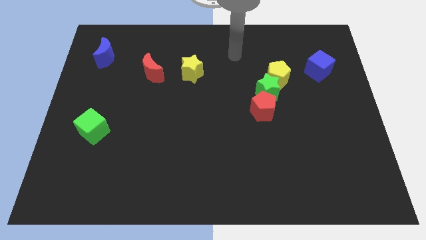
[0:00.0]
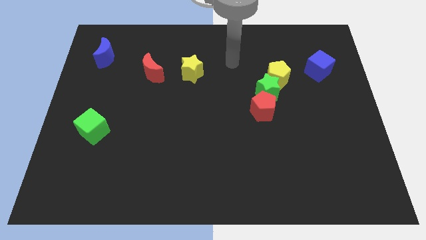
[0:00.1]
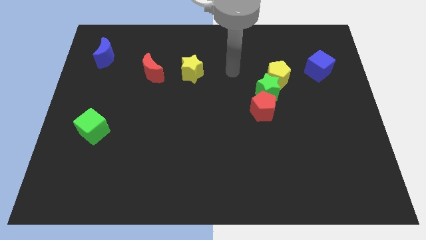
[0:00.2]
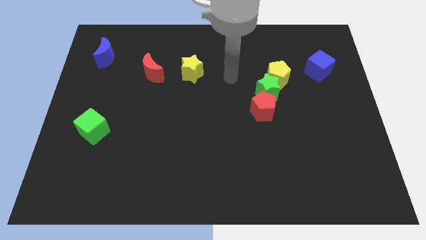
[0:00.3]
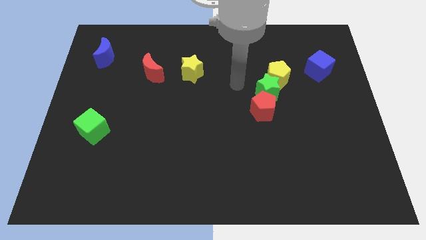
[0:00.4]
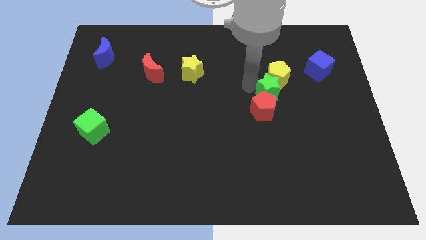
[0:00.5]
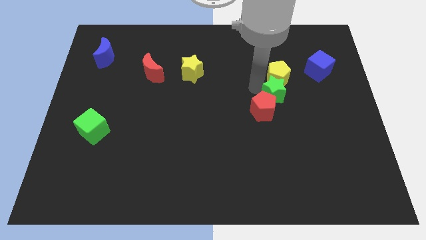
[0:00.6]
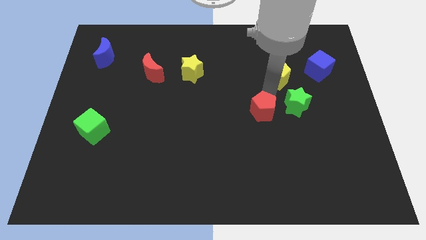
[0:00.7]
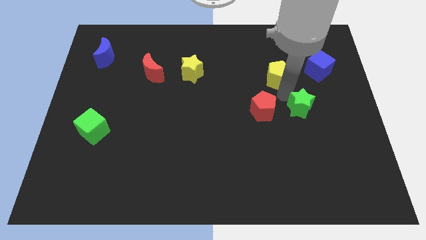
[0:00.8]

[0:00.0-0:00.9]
pull the yellow pentagon apart from the green star

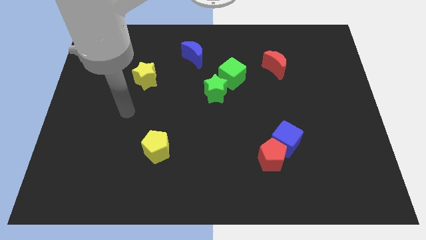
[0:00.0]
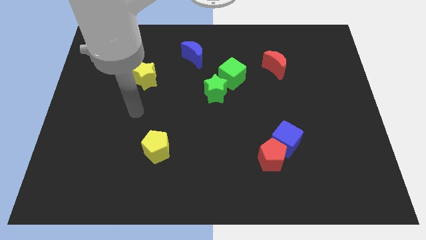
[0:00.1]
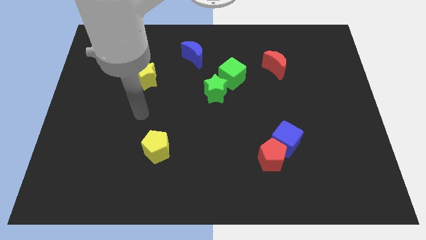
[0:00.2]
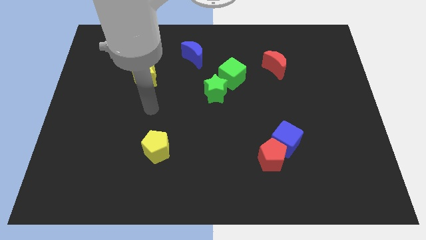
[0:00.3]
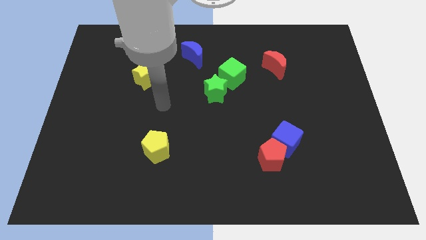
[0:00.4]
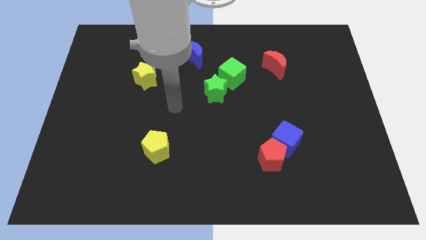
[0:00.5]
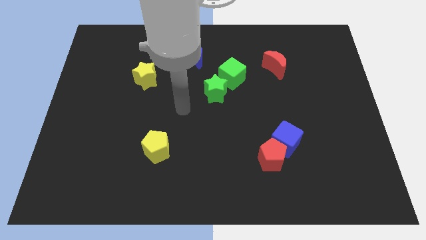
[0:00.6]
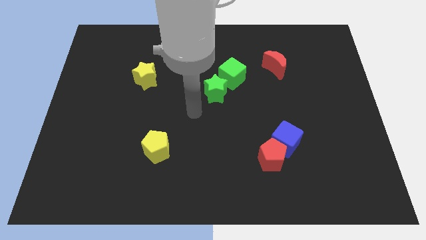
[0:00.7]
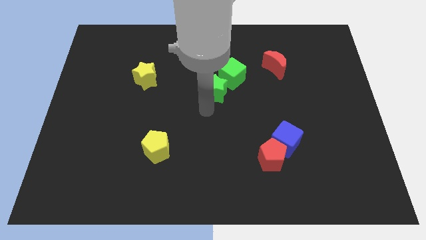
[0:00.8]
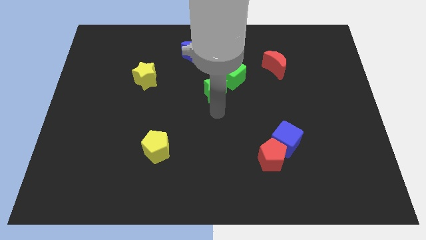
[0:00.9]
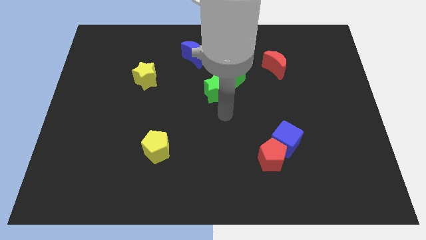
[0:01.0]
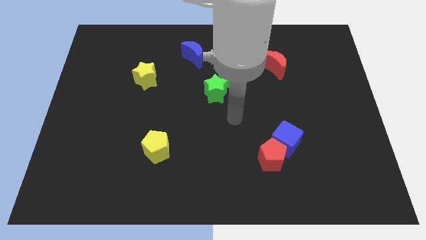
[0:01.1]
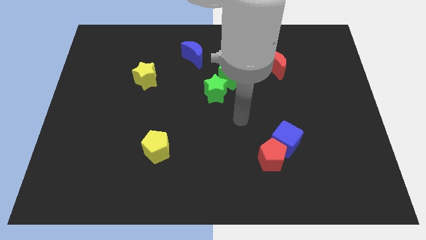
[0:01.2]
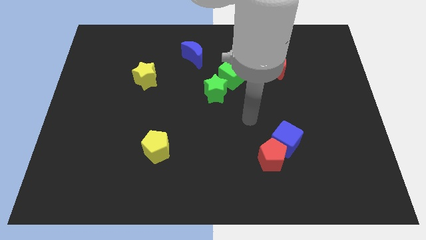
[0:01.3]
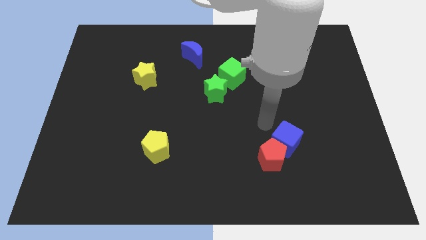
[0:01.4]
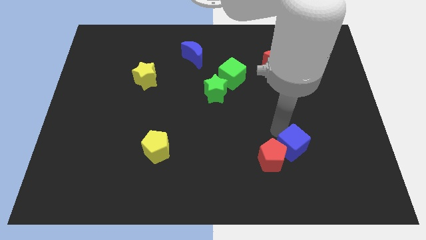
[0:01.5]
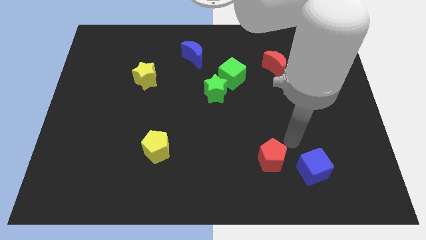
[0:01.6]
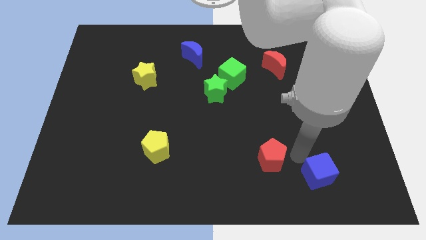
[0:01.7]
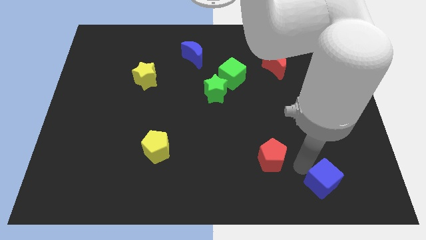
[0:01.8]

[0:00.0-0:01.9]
pull the red pentagon apart from the blue cube

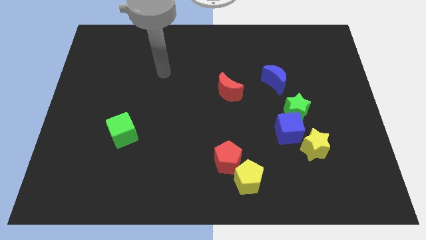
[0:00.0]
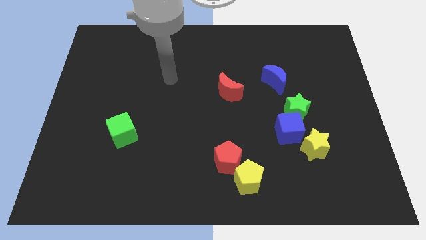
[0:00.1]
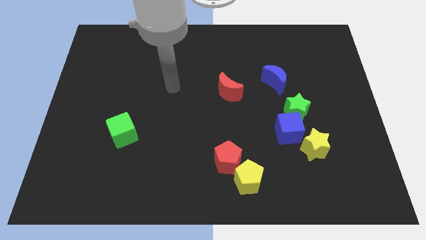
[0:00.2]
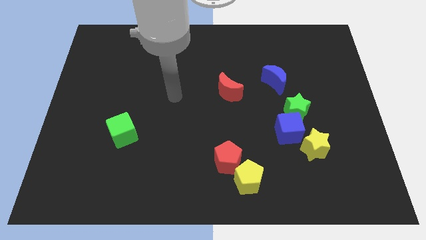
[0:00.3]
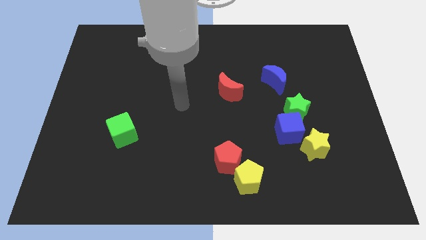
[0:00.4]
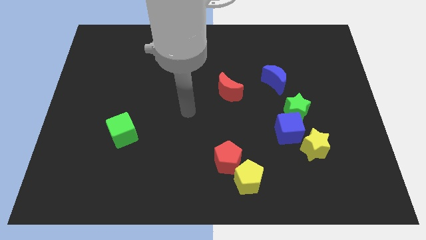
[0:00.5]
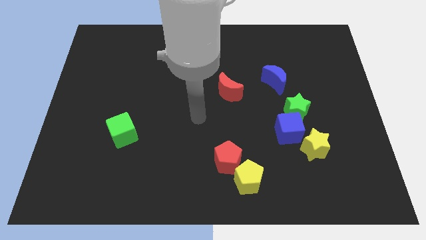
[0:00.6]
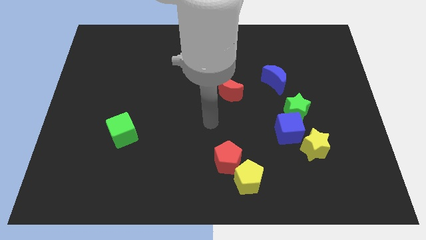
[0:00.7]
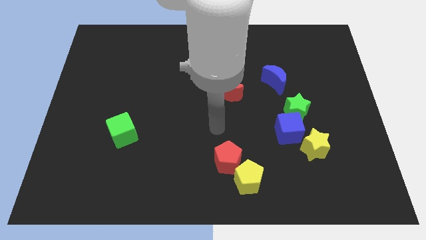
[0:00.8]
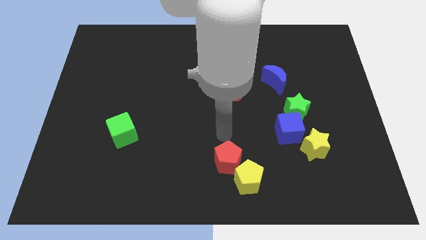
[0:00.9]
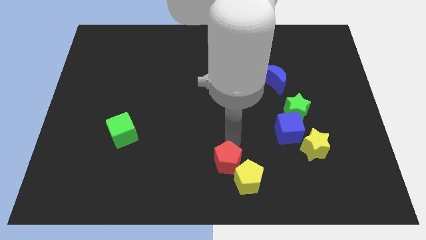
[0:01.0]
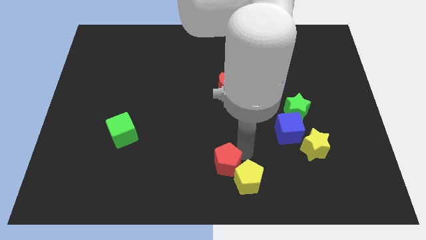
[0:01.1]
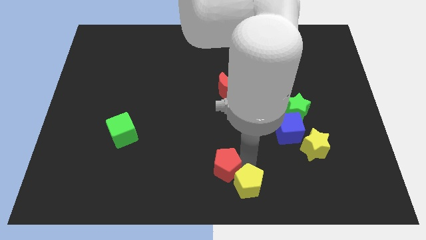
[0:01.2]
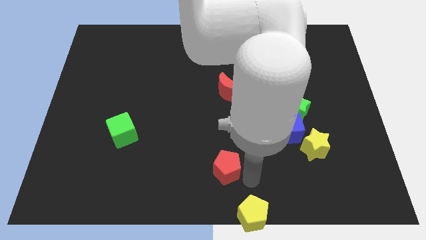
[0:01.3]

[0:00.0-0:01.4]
move the red pentagon away from the yellow pentagon

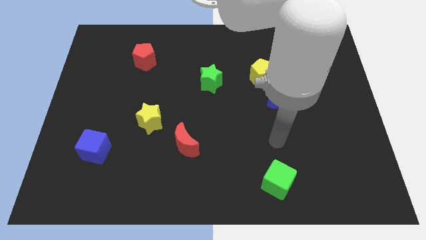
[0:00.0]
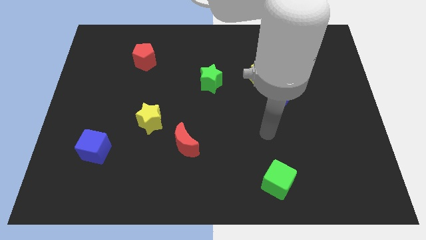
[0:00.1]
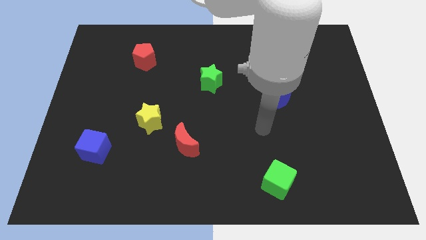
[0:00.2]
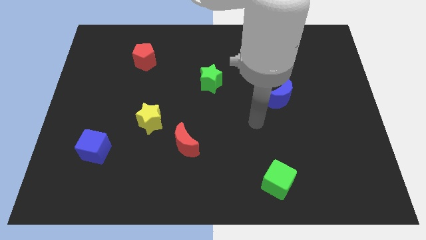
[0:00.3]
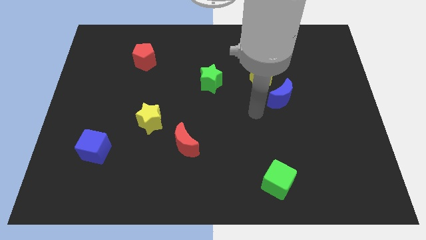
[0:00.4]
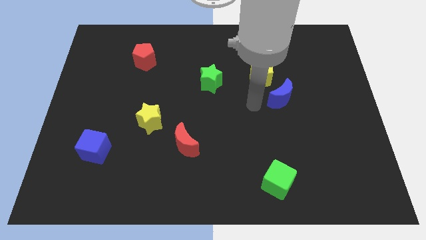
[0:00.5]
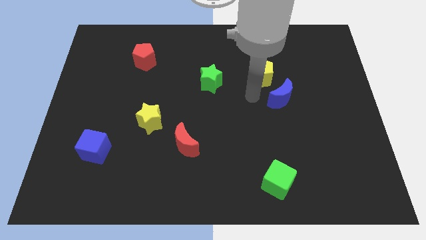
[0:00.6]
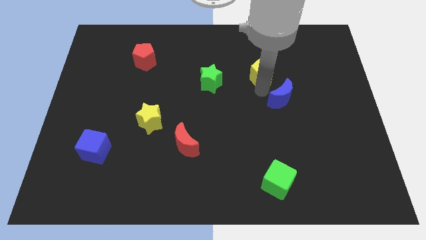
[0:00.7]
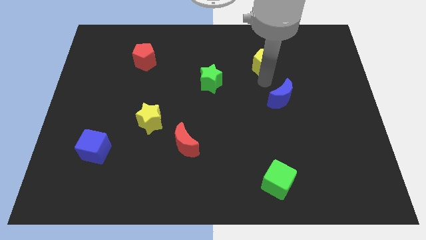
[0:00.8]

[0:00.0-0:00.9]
pull the blue moon apart from the yellow pentagon

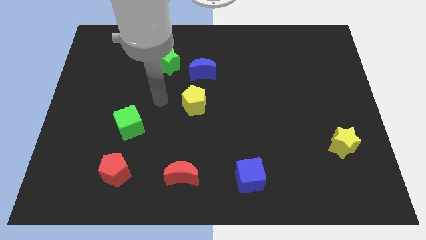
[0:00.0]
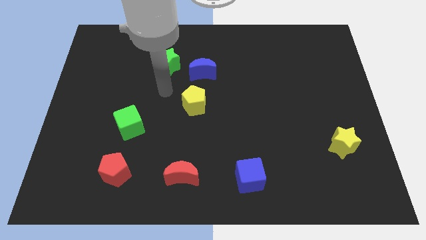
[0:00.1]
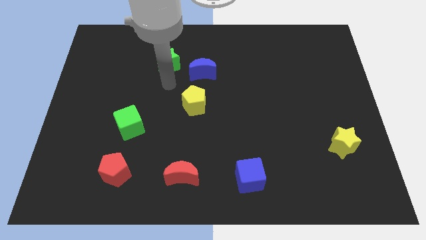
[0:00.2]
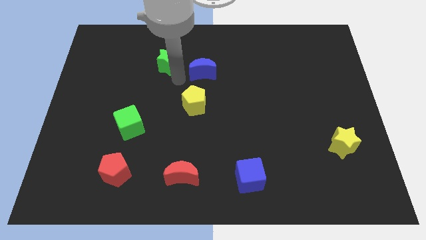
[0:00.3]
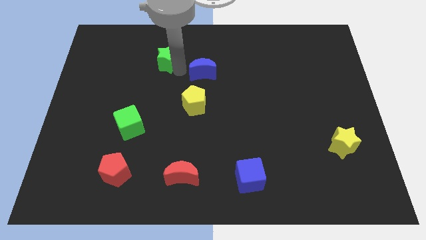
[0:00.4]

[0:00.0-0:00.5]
separate the blue moon from the green star

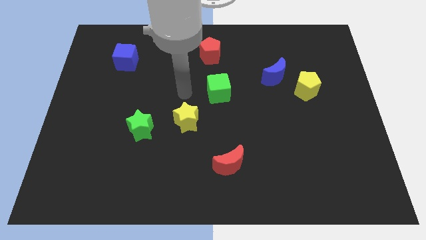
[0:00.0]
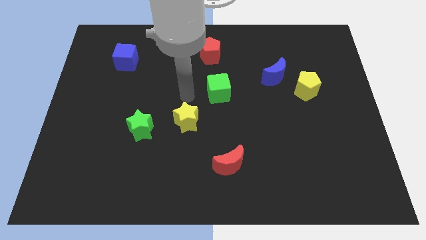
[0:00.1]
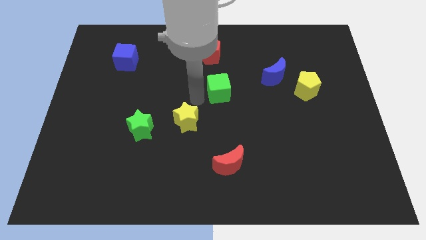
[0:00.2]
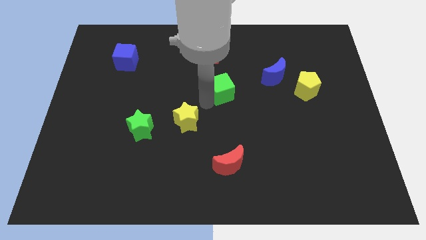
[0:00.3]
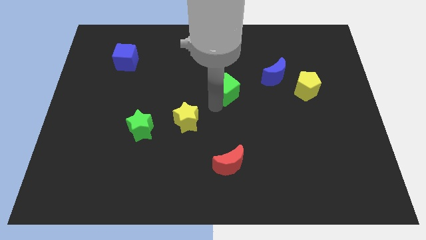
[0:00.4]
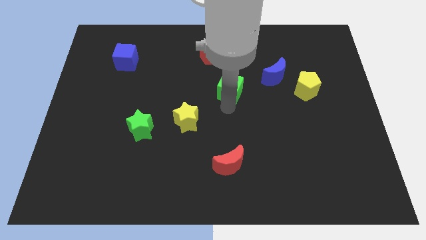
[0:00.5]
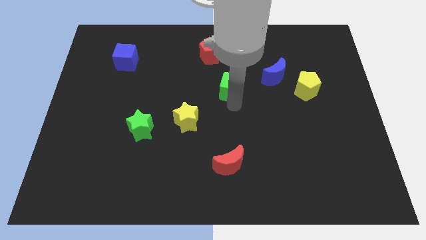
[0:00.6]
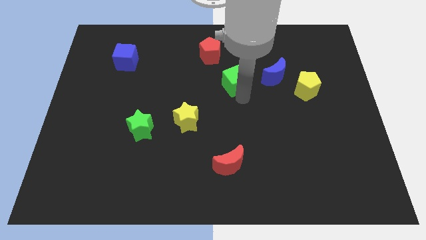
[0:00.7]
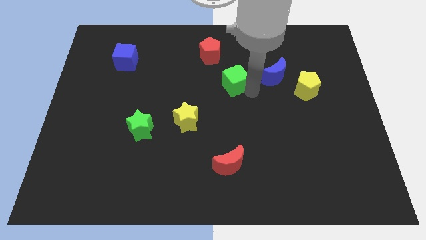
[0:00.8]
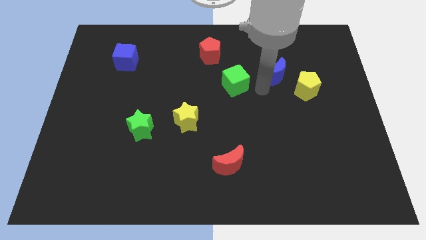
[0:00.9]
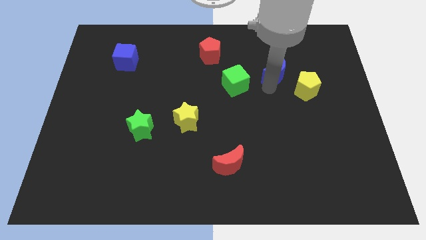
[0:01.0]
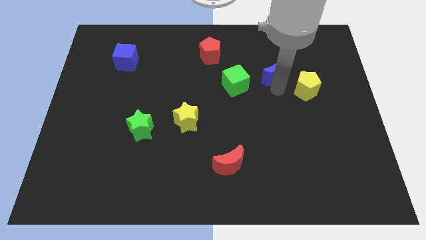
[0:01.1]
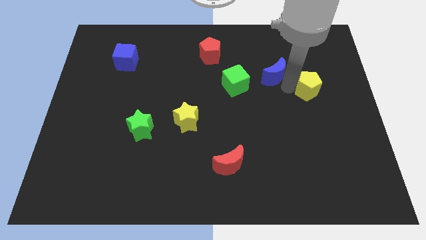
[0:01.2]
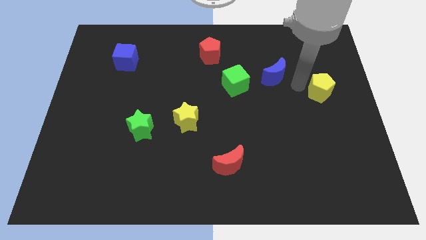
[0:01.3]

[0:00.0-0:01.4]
move the blue moon away from the yellow pentagon

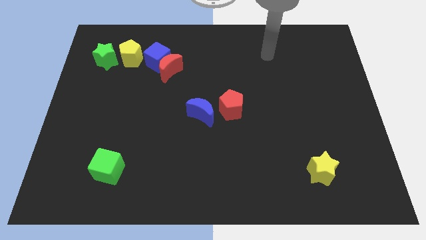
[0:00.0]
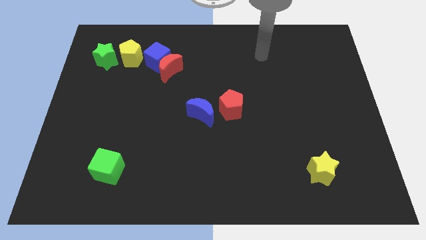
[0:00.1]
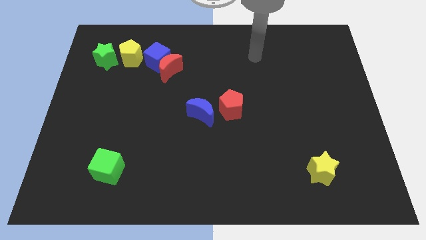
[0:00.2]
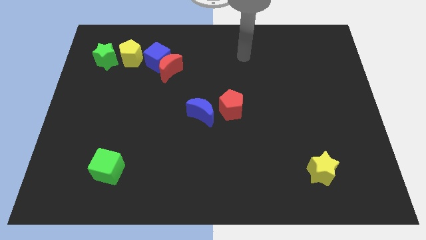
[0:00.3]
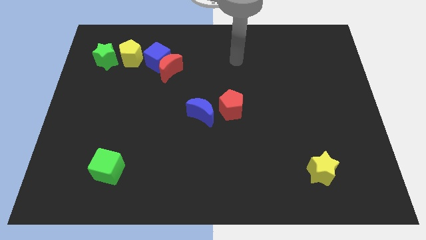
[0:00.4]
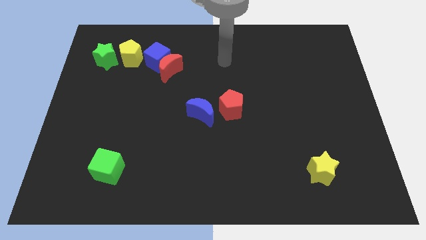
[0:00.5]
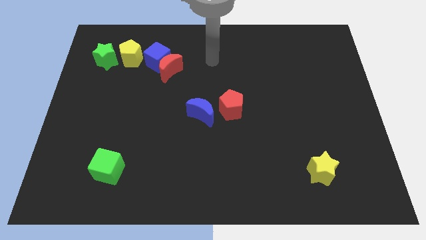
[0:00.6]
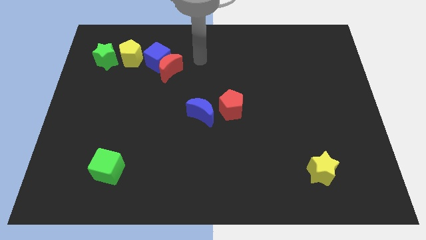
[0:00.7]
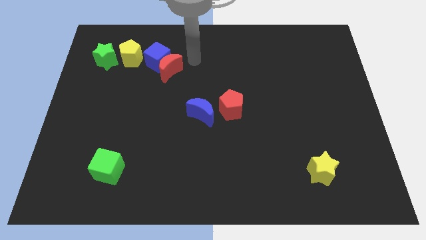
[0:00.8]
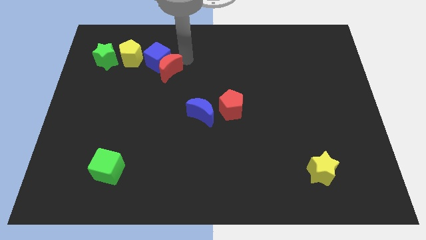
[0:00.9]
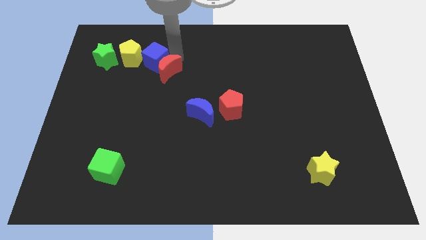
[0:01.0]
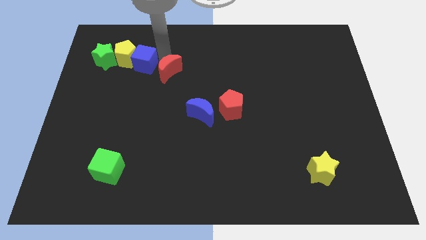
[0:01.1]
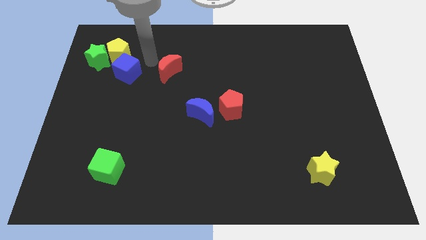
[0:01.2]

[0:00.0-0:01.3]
move the red moon away from the blue cube

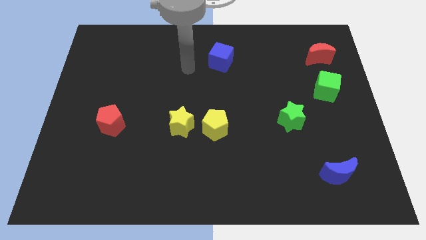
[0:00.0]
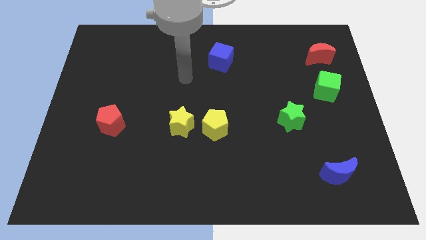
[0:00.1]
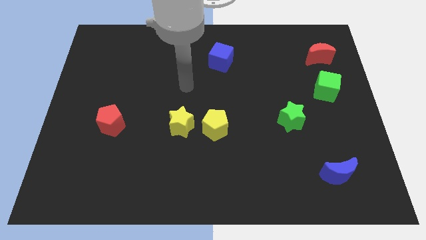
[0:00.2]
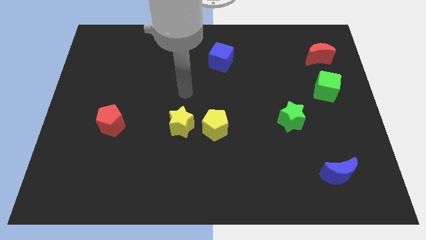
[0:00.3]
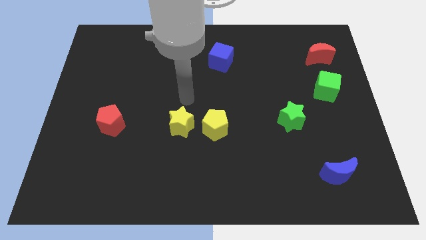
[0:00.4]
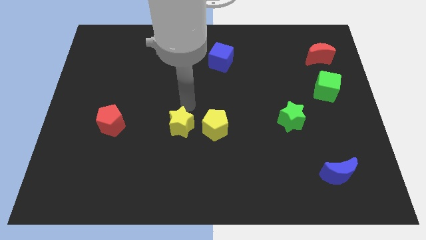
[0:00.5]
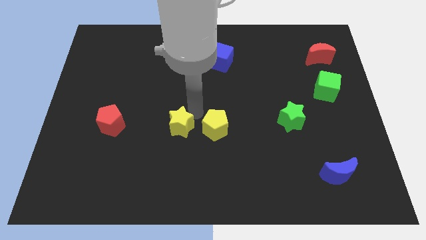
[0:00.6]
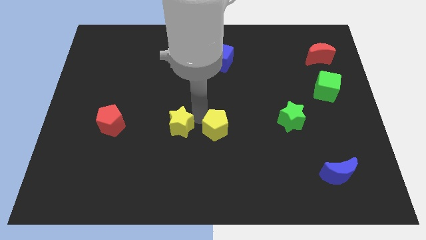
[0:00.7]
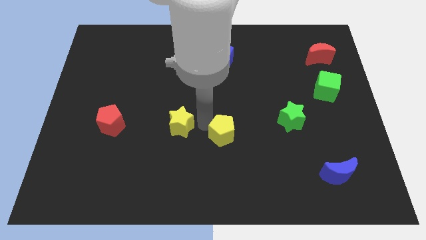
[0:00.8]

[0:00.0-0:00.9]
pull the yellow star apart from the yellow pentagon

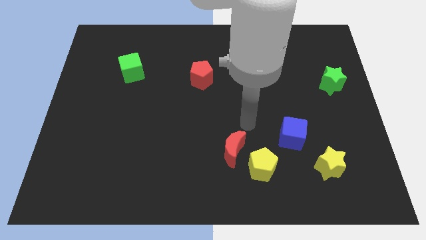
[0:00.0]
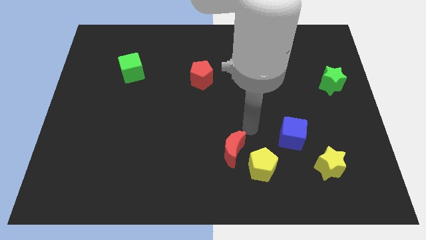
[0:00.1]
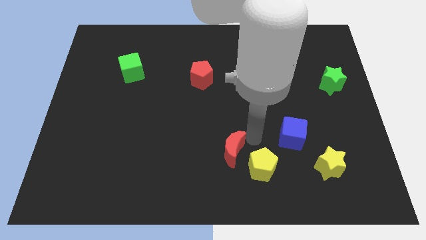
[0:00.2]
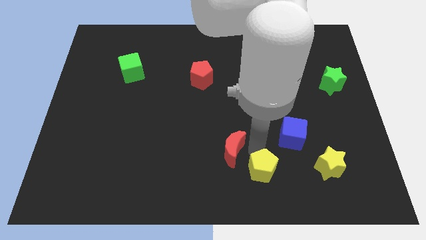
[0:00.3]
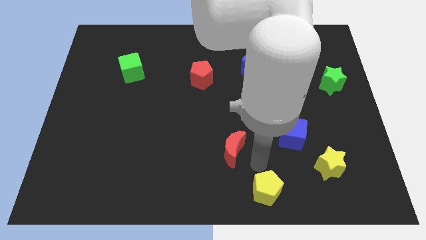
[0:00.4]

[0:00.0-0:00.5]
move the red moon away from the yellow pentagon
